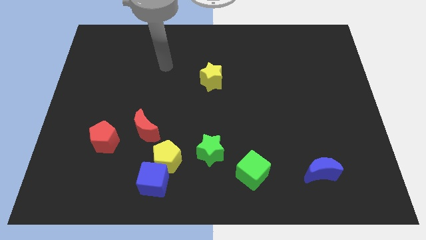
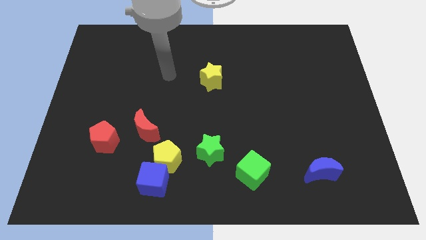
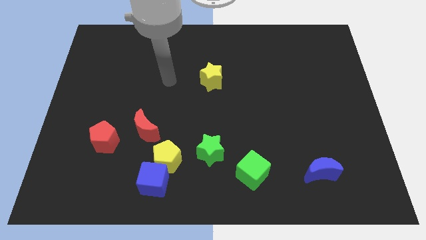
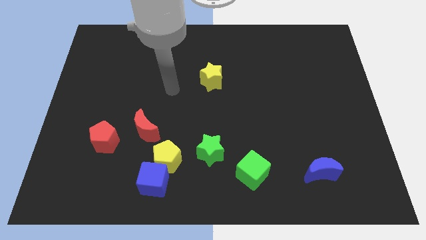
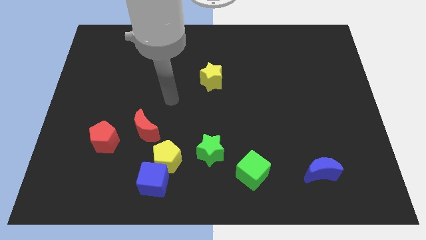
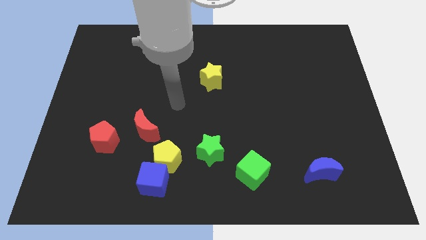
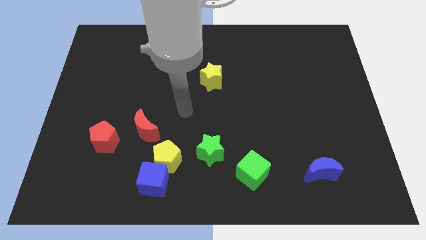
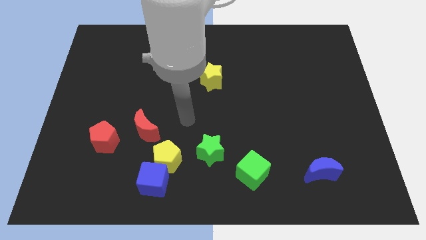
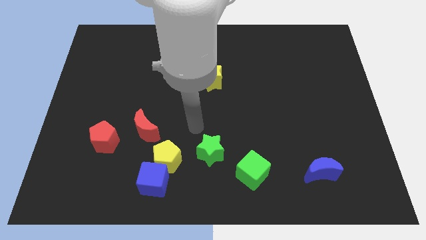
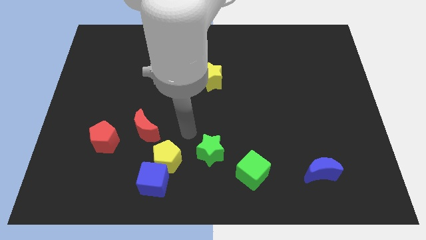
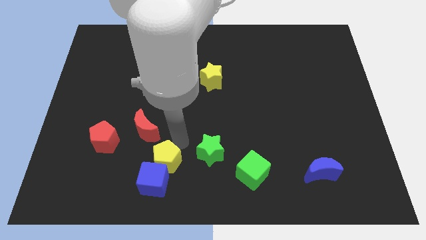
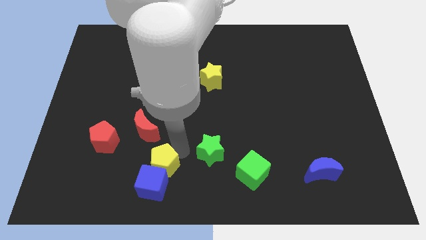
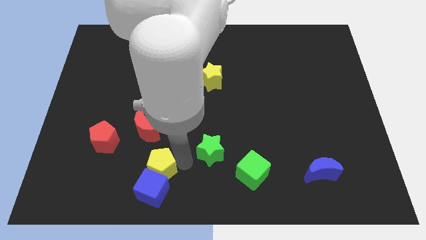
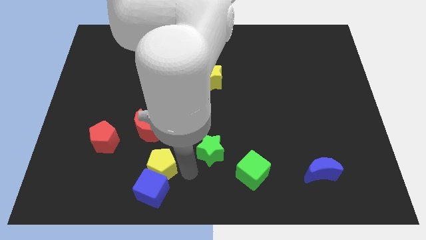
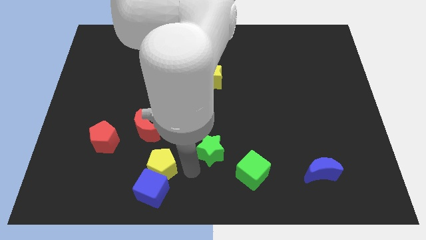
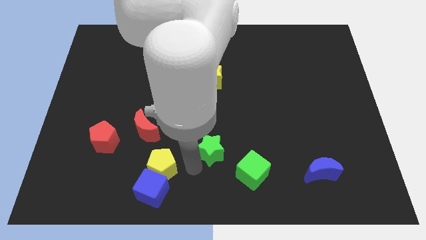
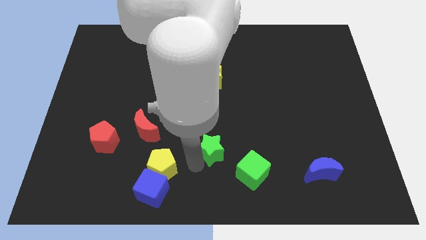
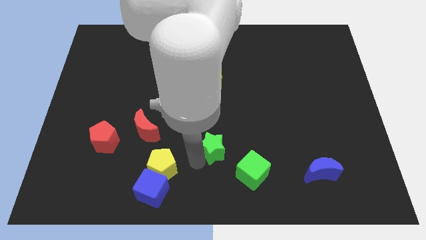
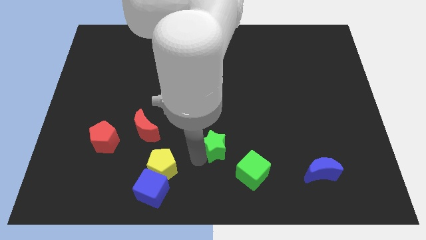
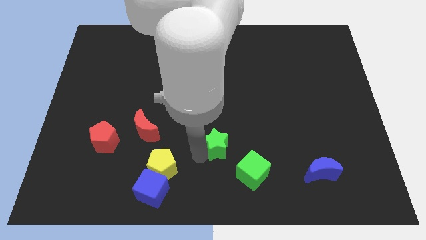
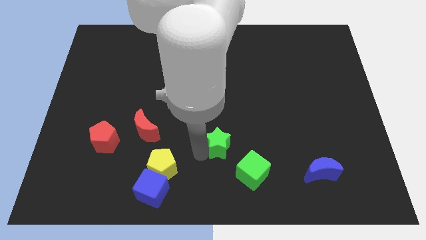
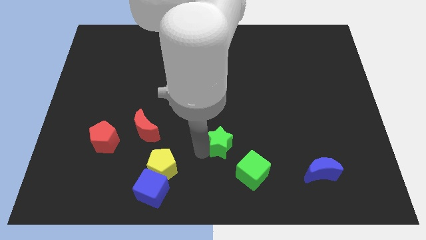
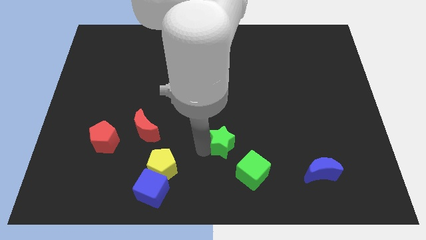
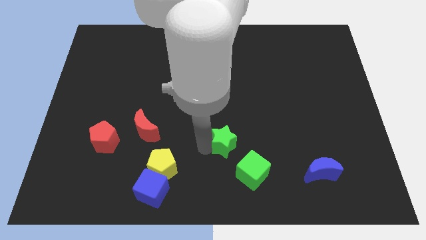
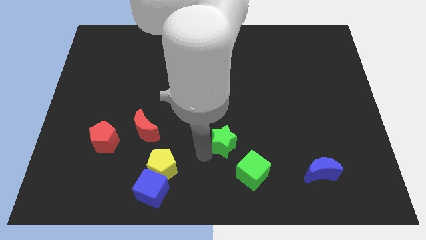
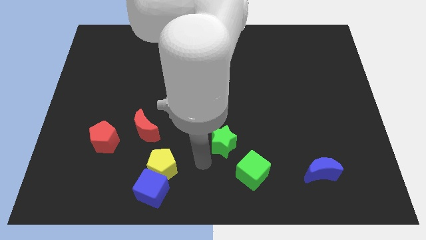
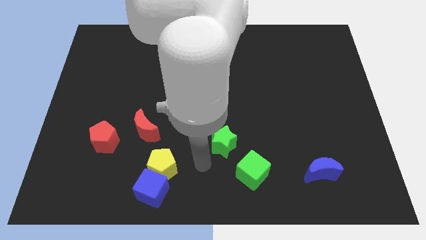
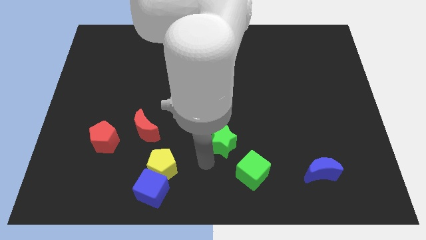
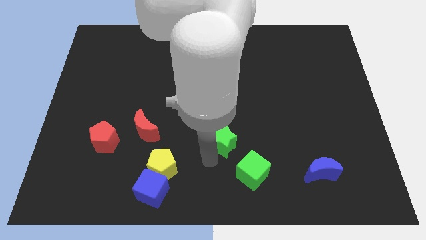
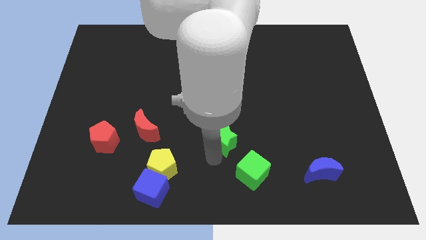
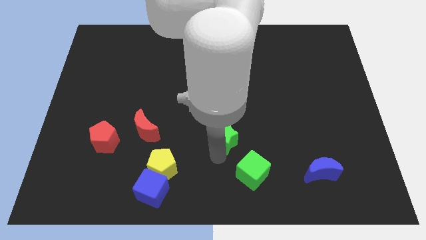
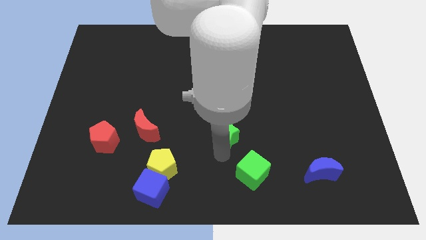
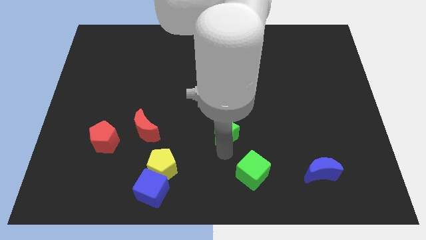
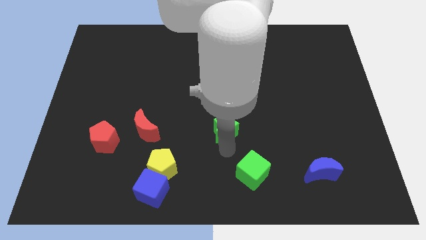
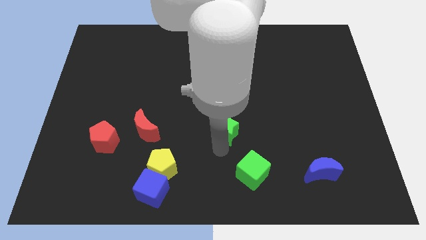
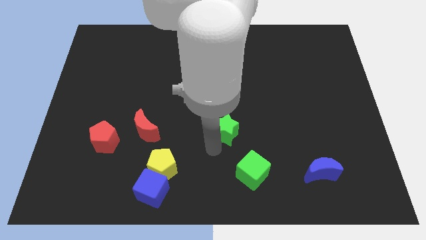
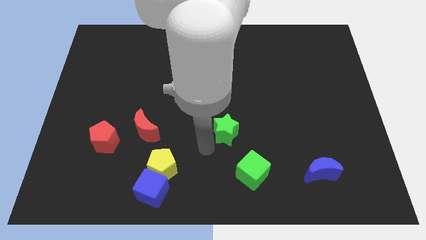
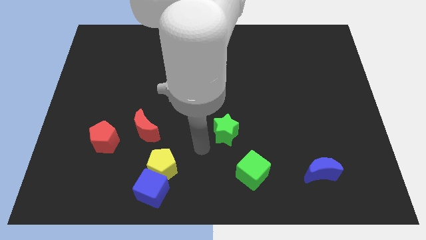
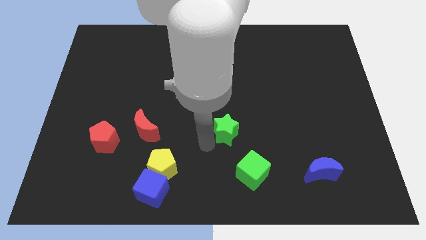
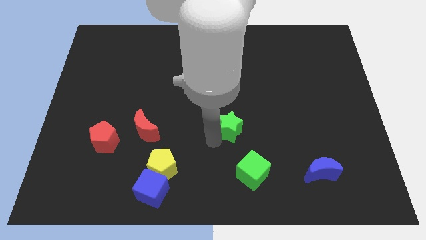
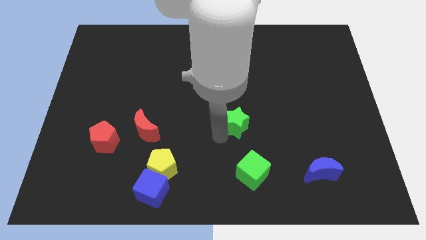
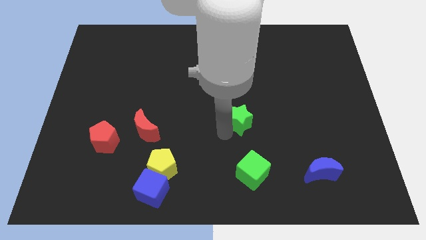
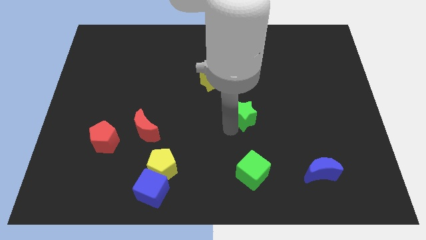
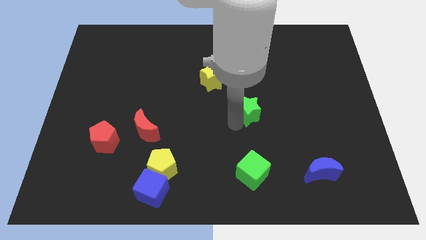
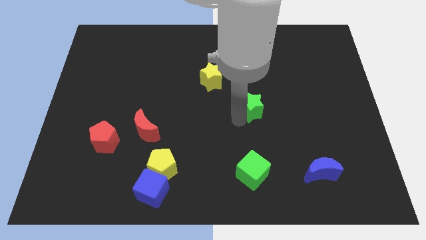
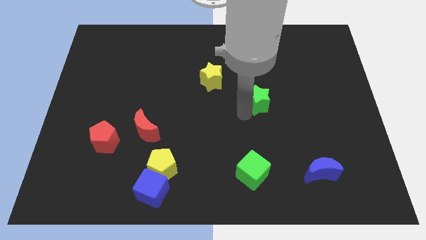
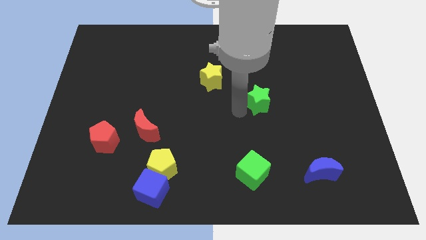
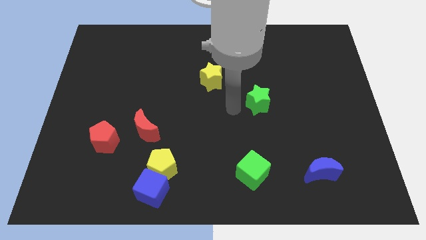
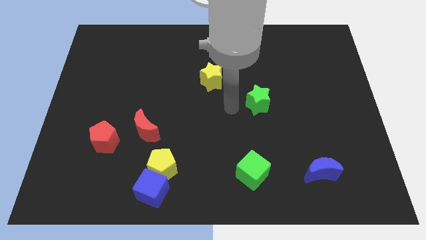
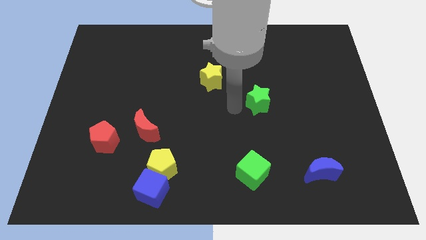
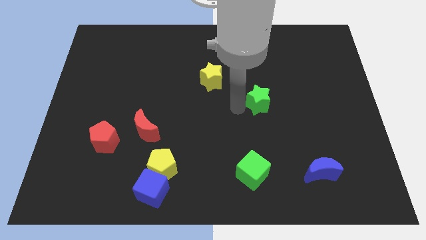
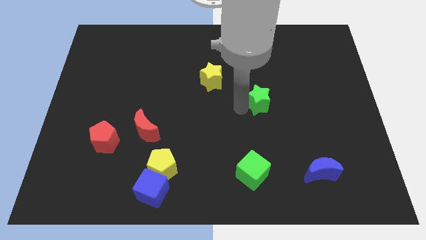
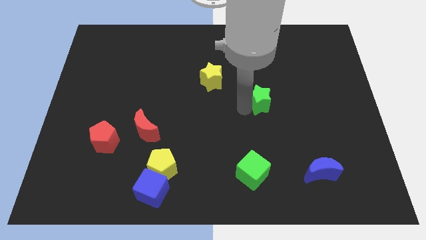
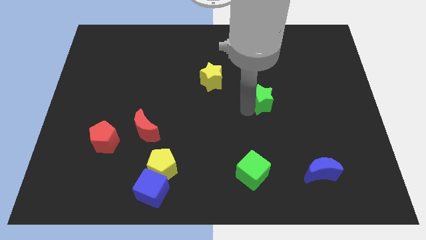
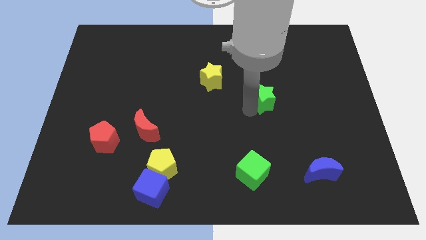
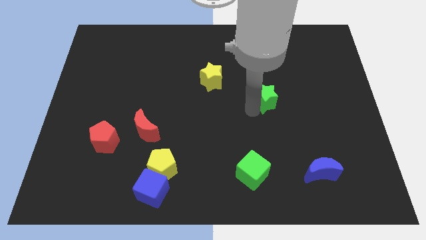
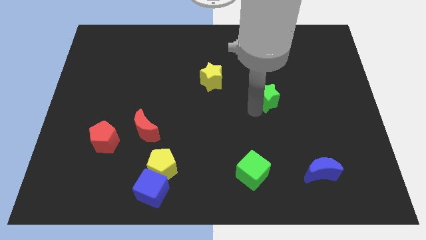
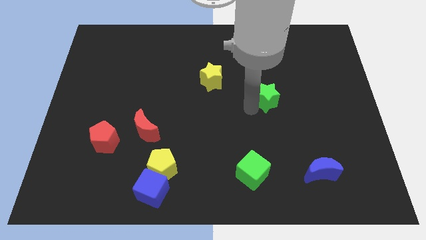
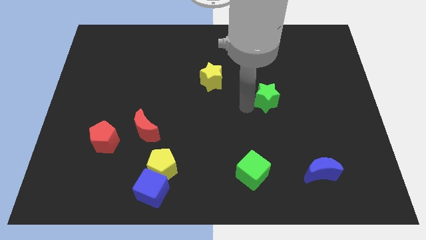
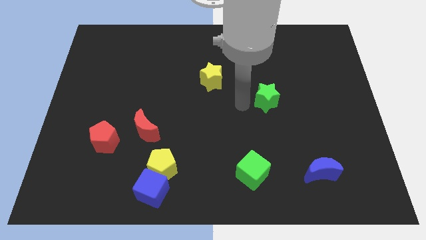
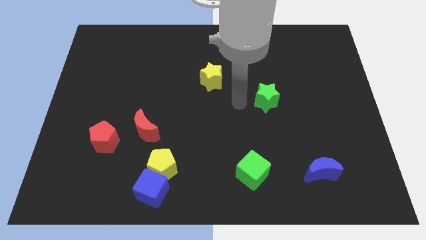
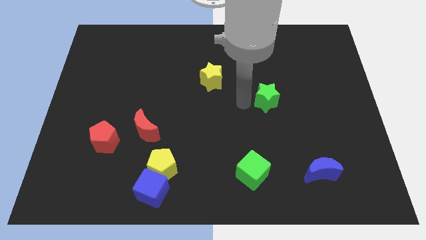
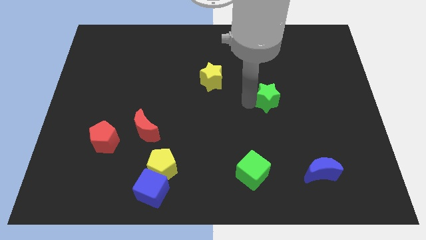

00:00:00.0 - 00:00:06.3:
move the green star up and to the right diagonally

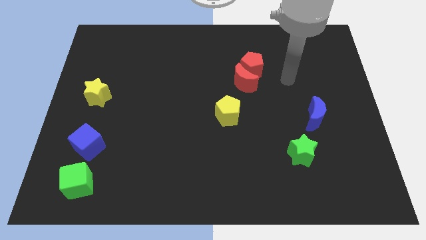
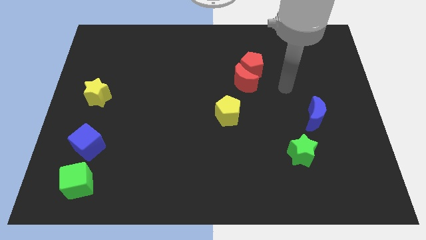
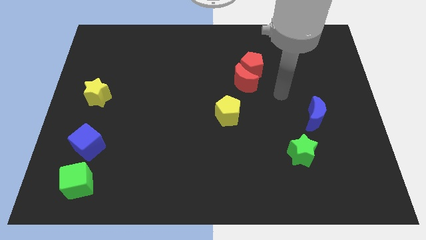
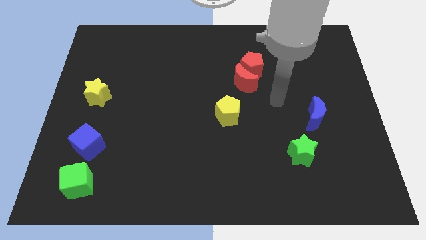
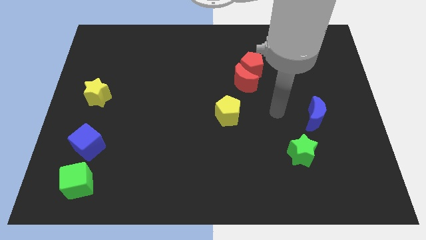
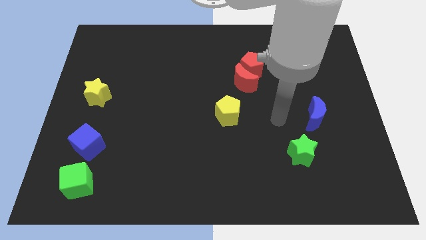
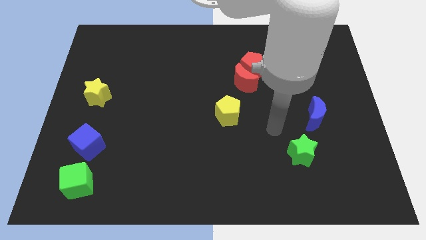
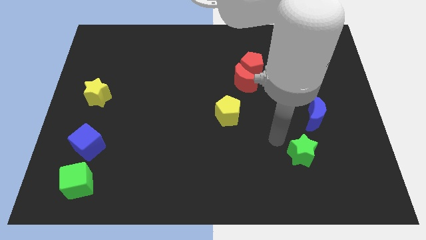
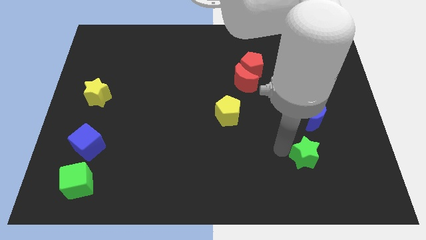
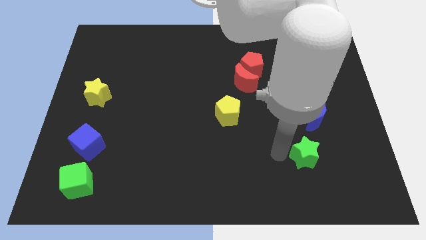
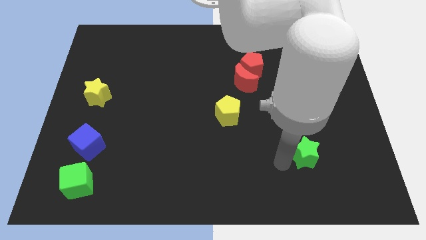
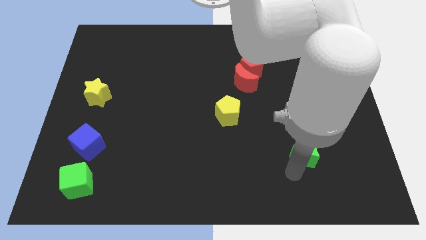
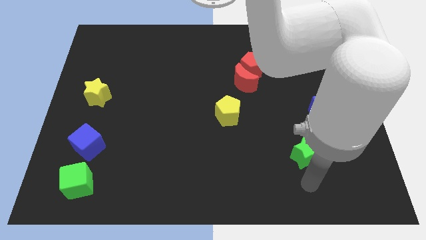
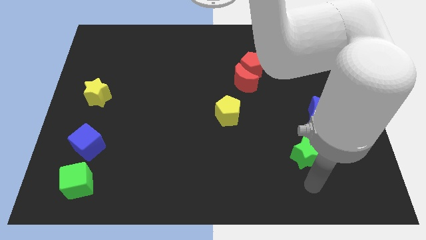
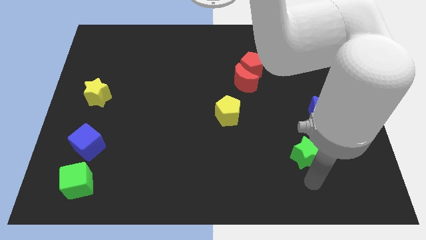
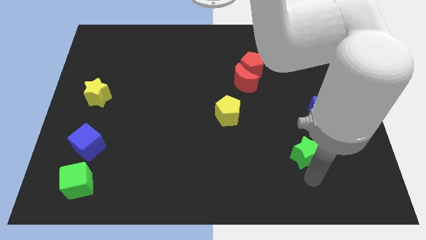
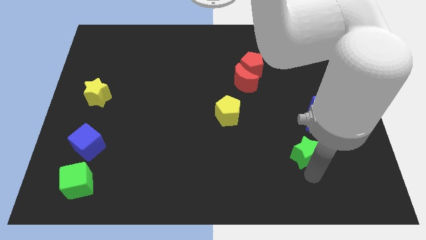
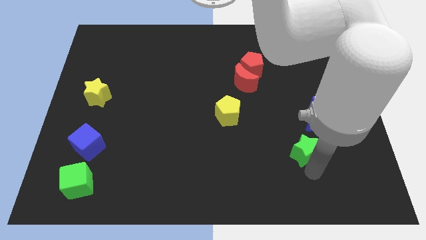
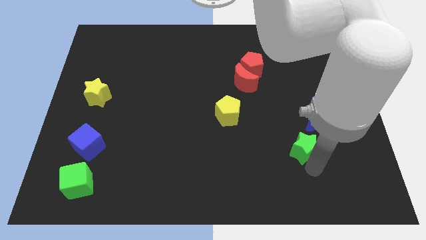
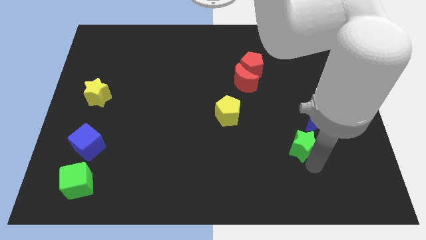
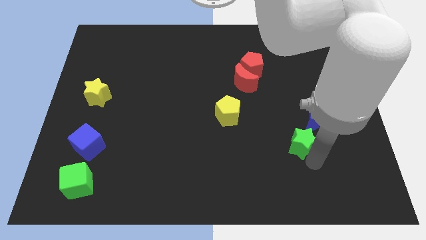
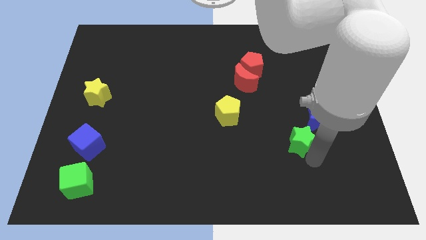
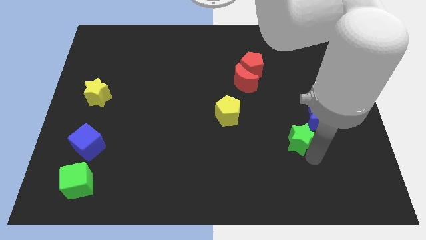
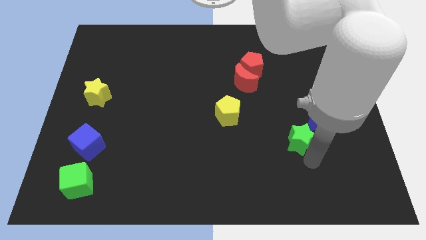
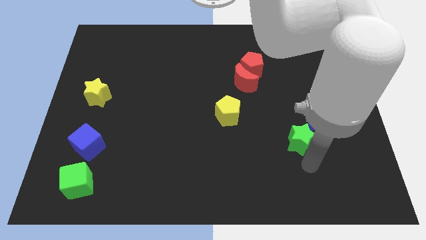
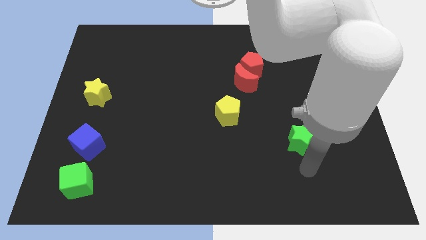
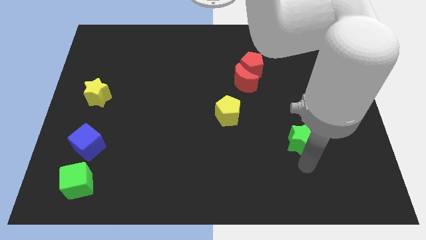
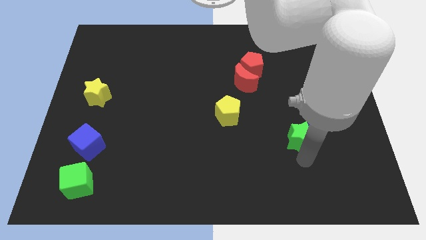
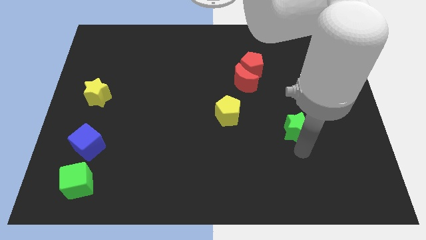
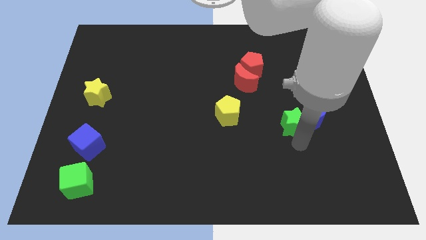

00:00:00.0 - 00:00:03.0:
push the green star up a little
